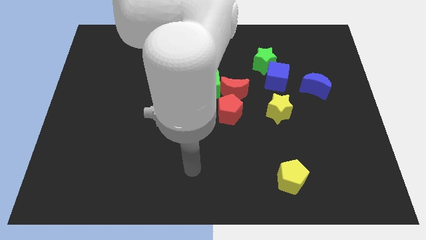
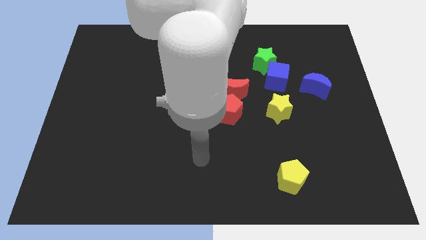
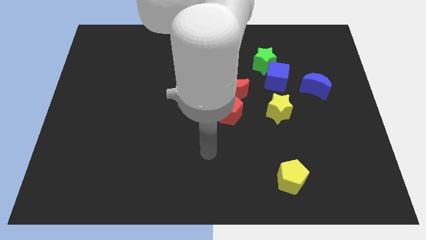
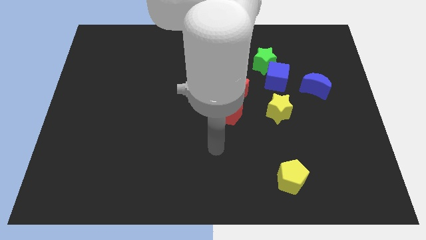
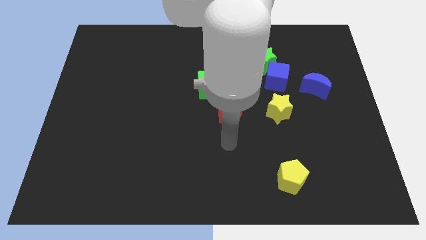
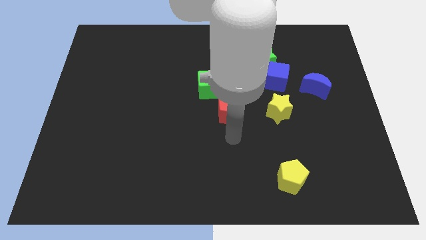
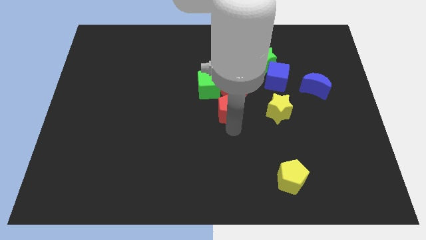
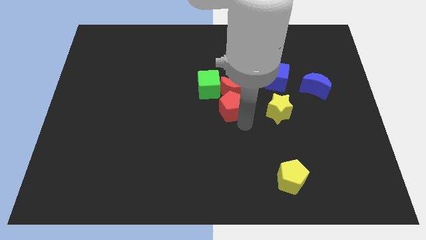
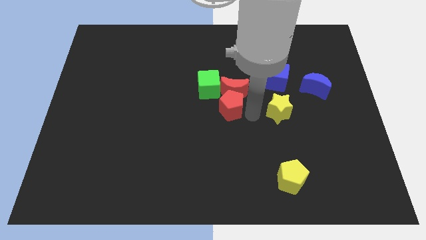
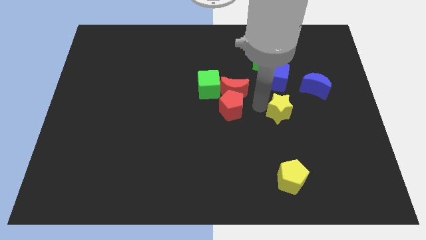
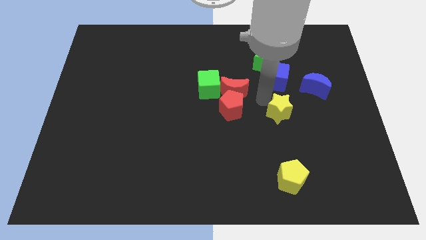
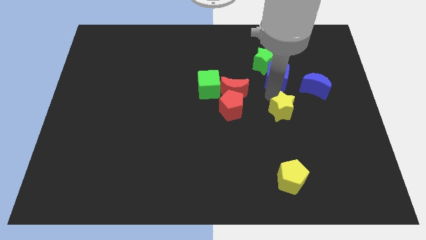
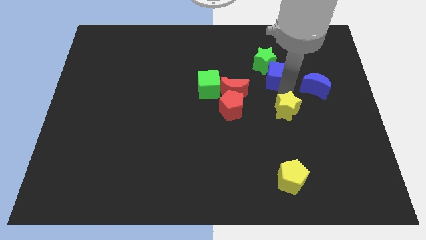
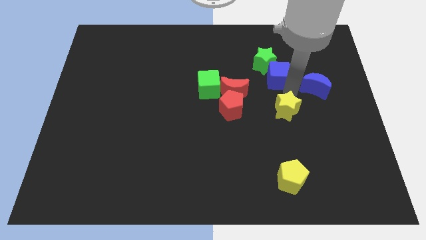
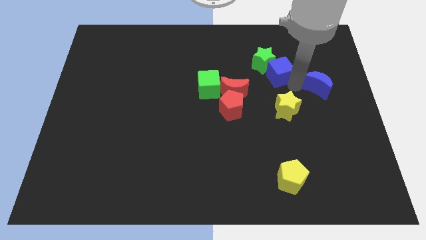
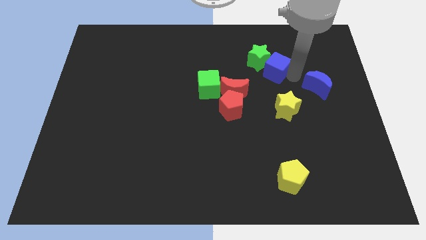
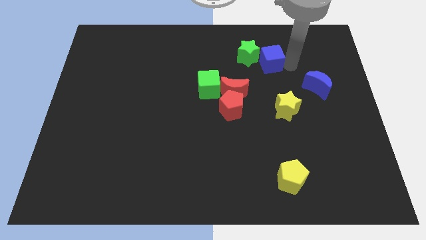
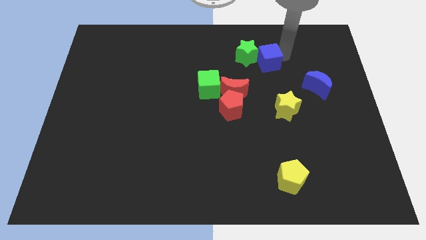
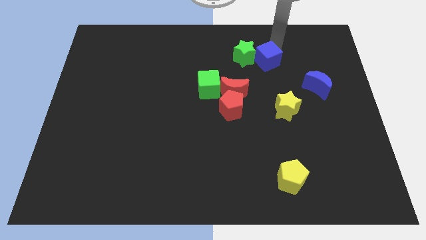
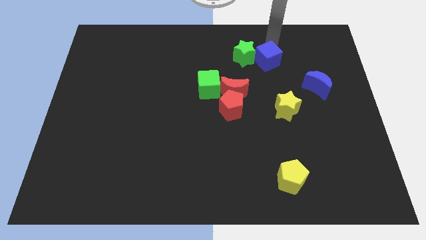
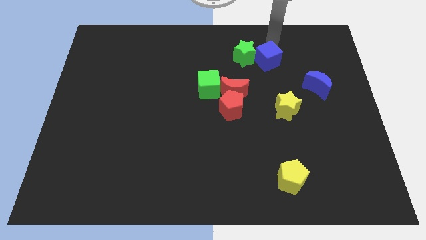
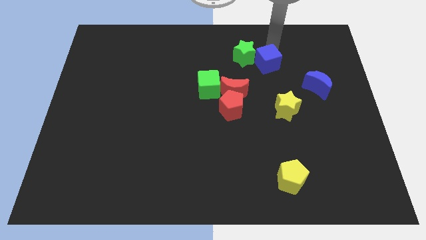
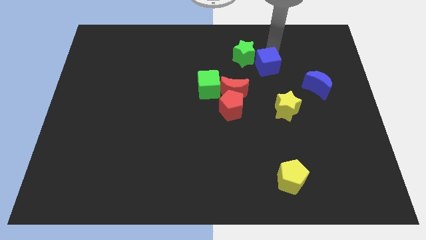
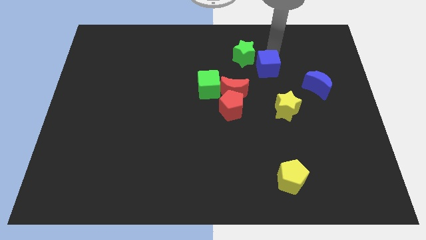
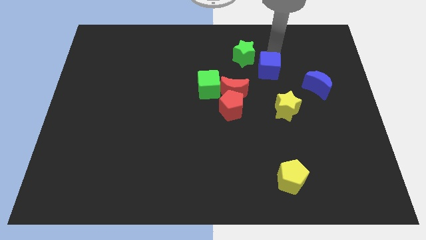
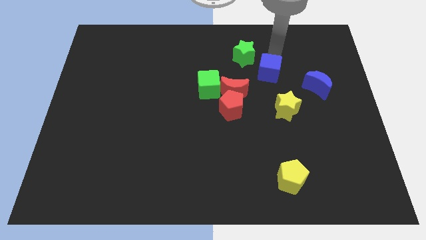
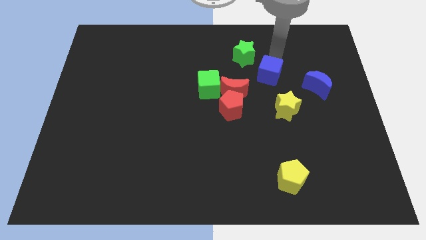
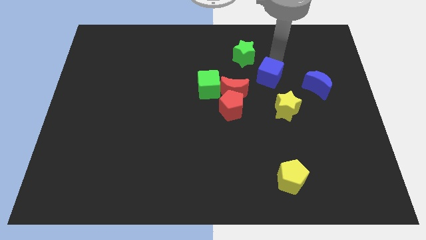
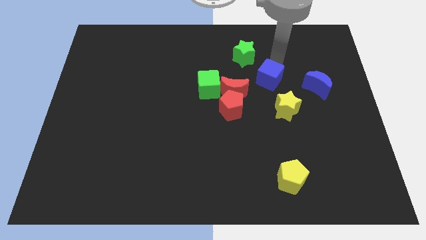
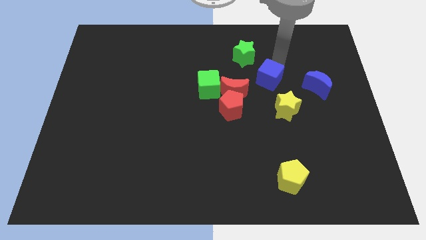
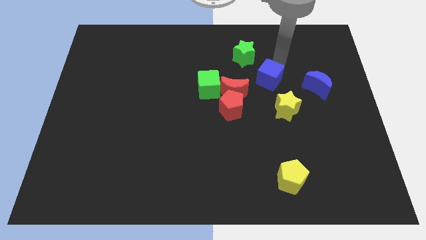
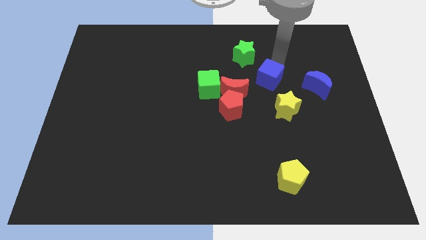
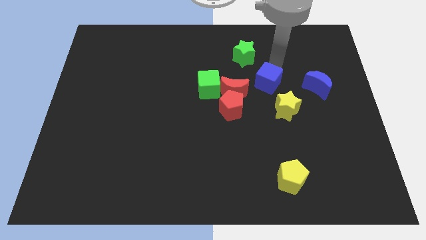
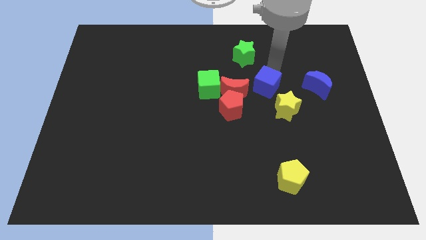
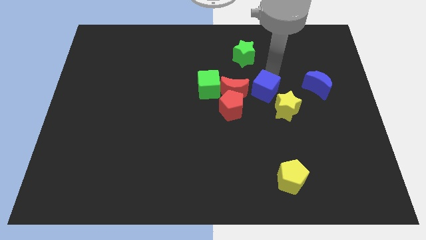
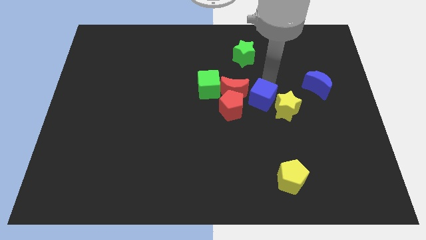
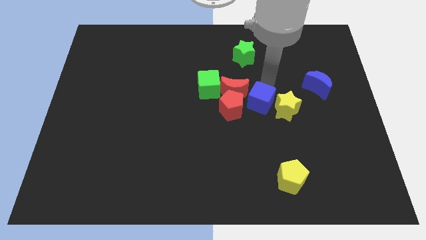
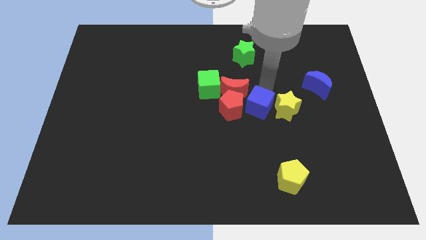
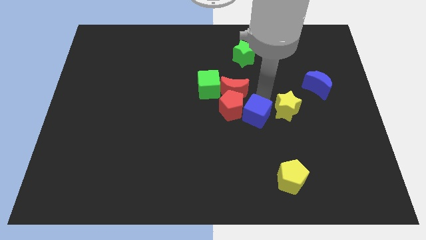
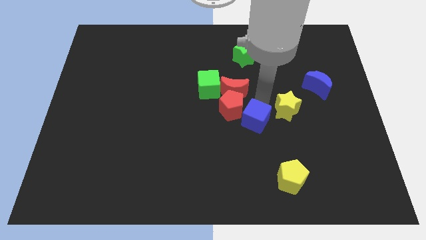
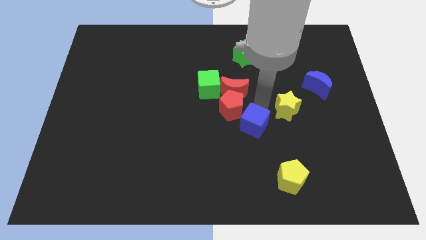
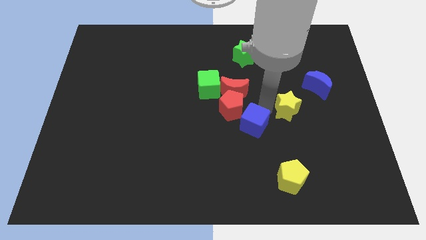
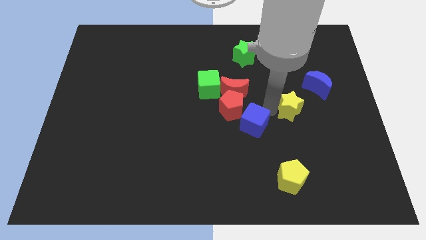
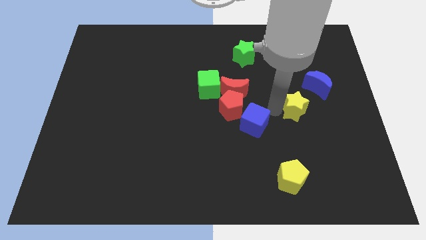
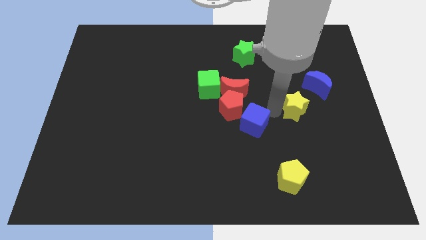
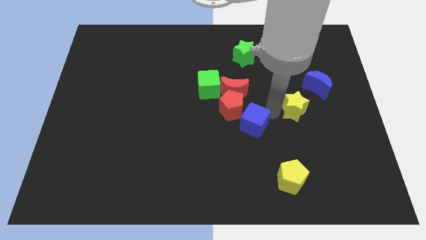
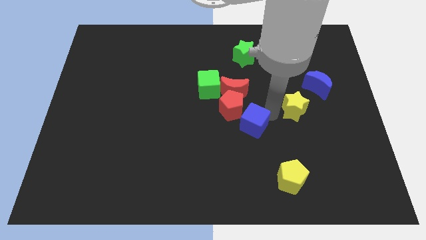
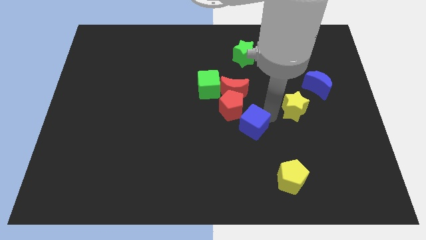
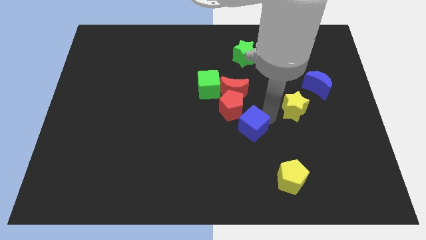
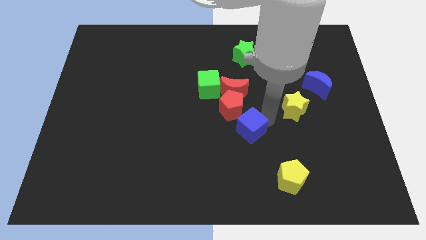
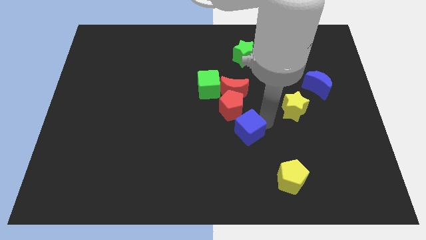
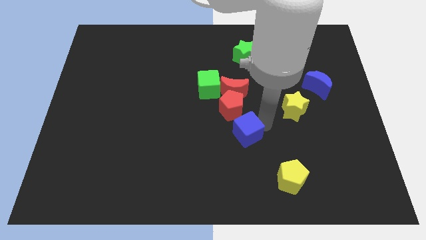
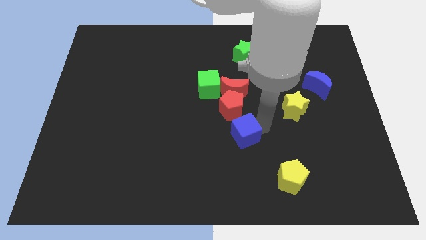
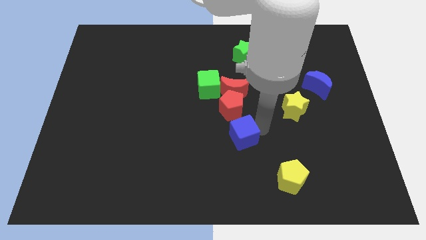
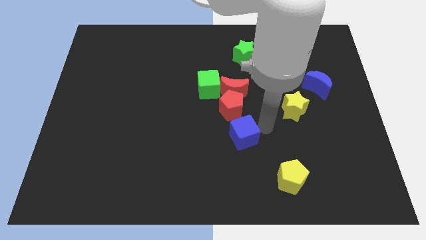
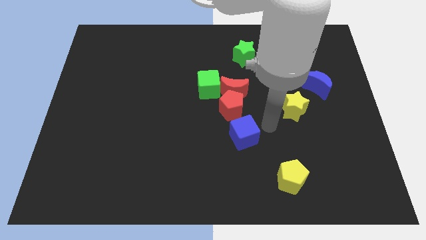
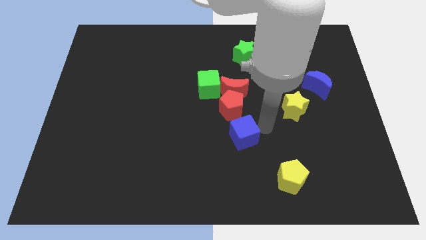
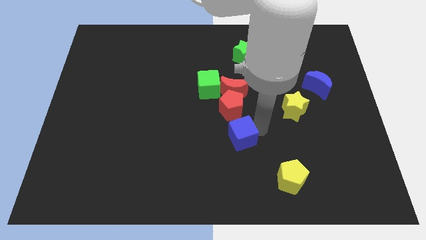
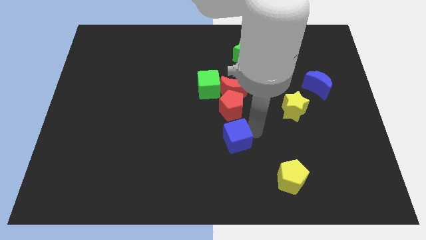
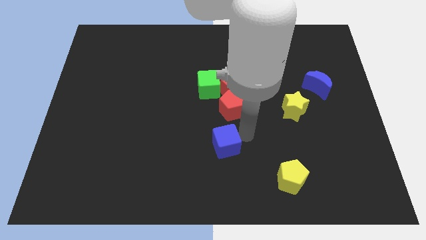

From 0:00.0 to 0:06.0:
slide the blue cube diagonally down and to the left

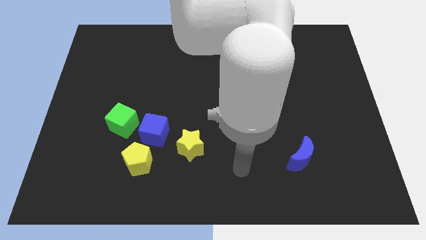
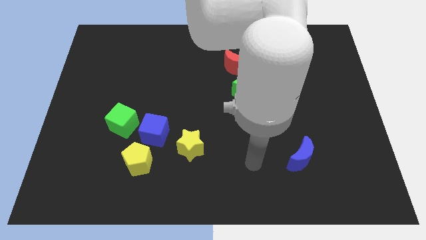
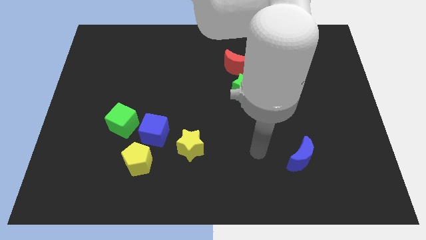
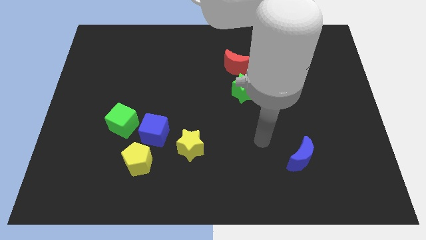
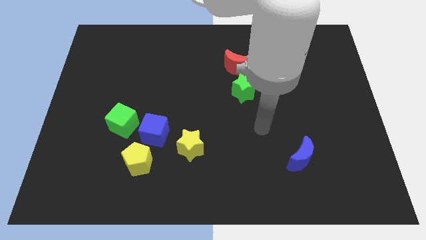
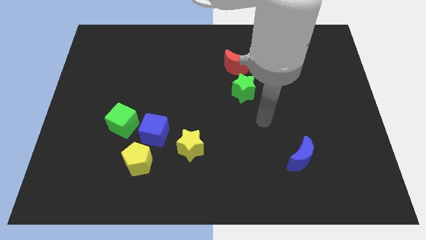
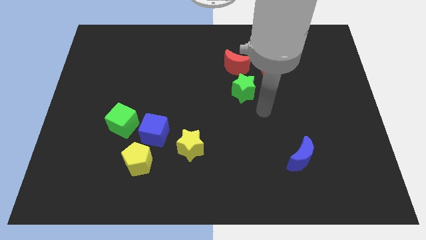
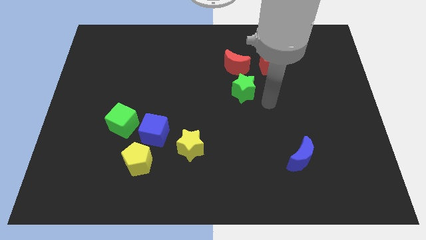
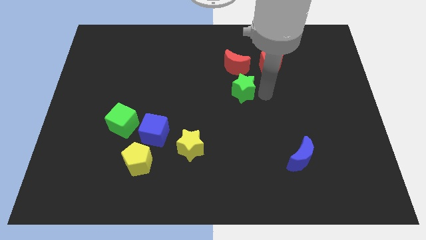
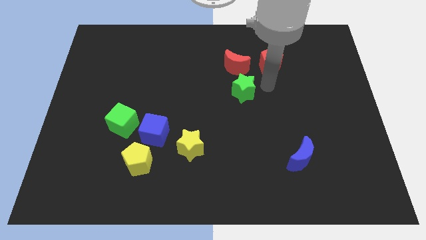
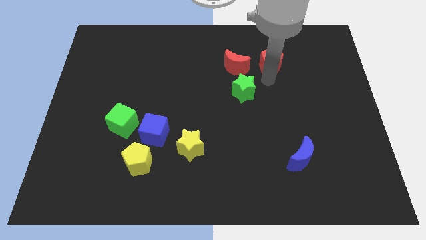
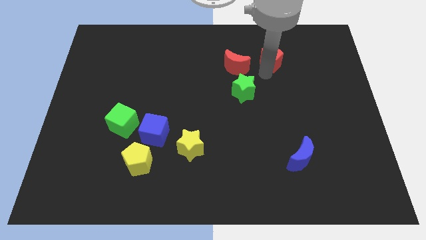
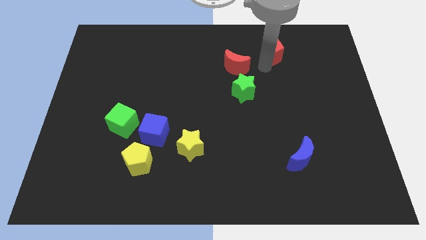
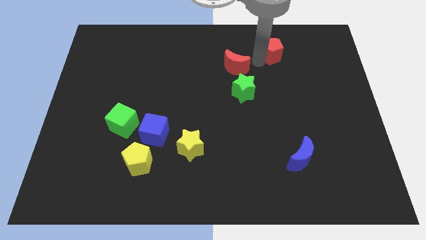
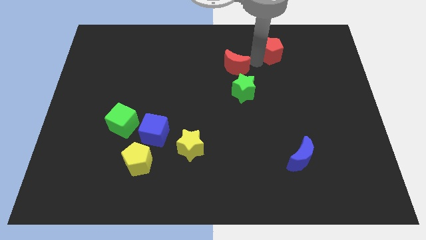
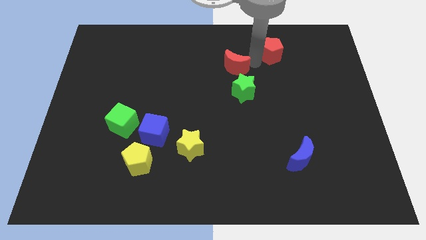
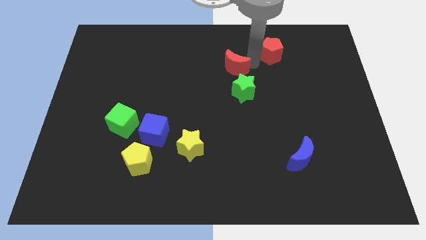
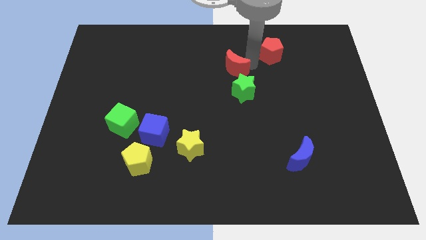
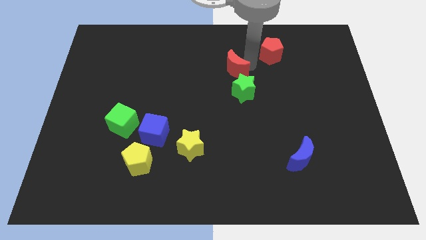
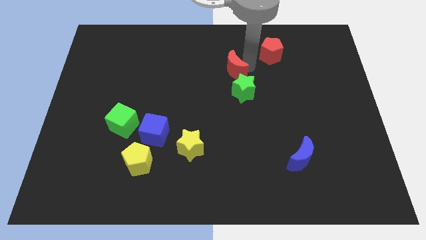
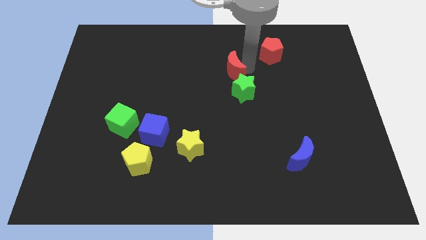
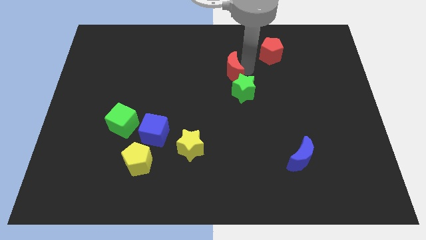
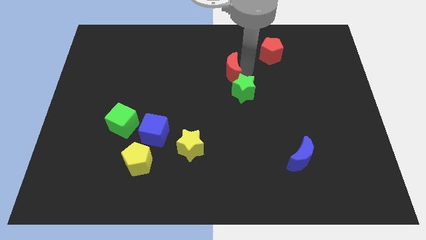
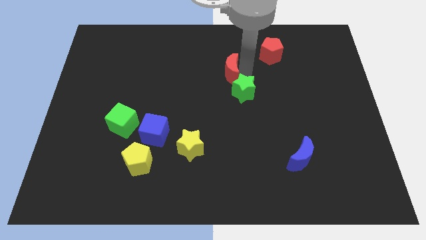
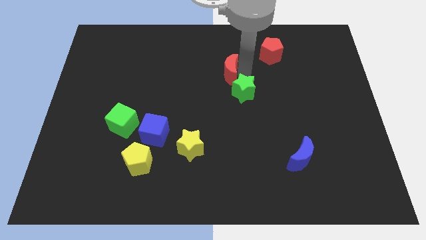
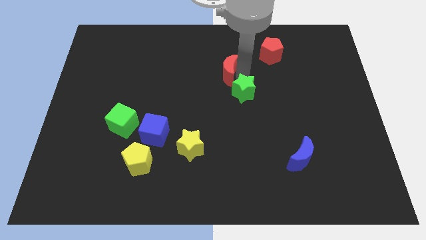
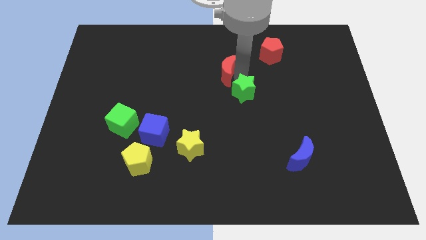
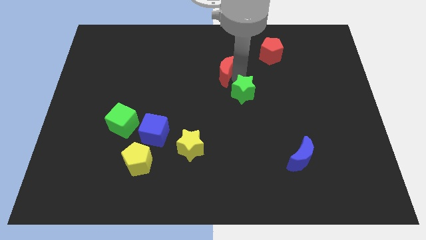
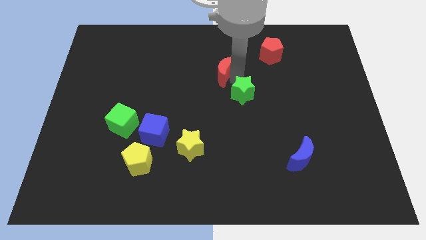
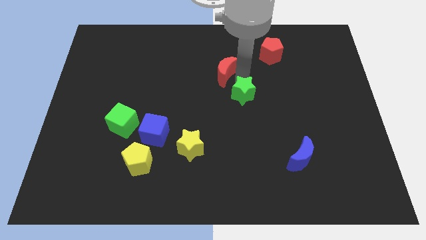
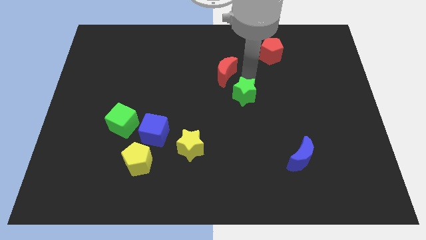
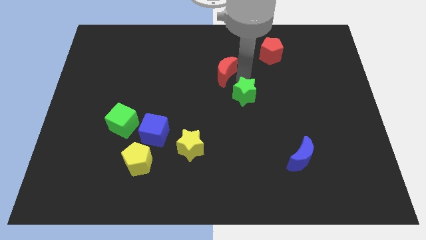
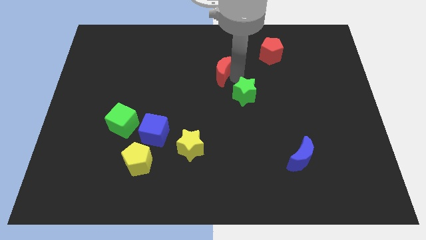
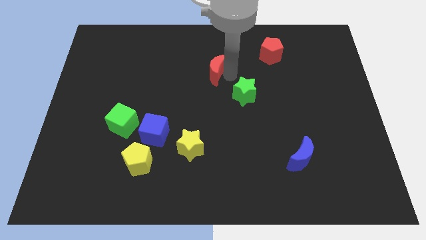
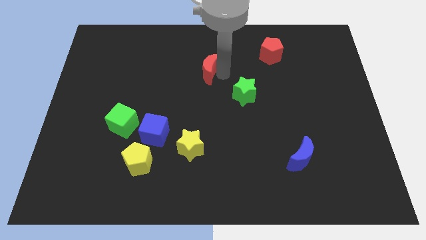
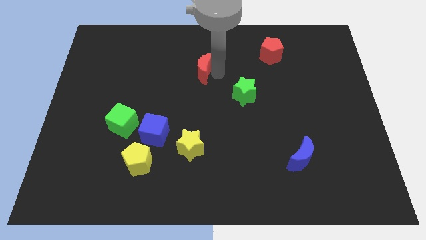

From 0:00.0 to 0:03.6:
slightly move the red moon left
